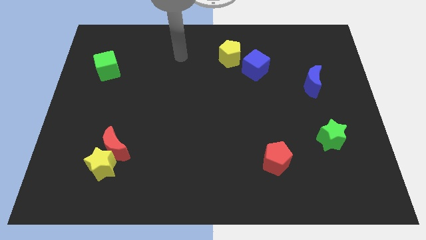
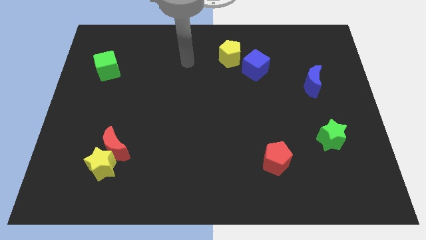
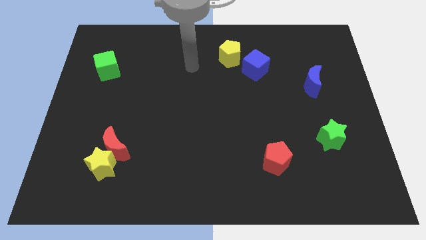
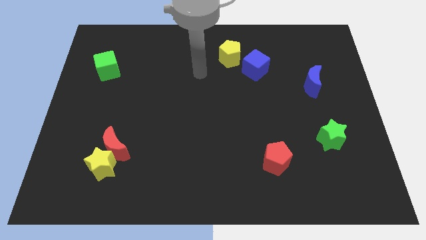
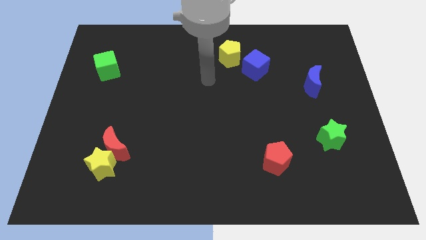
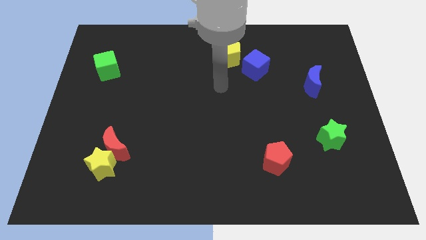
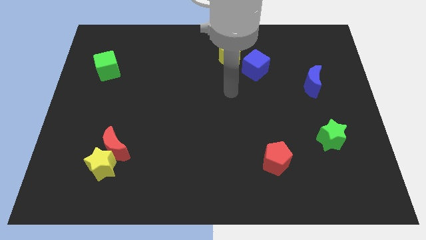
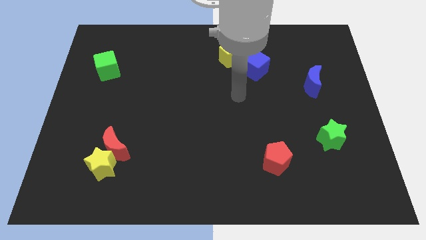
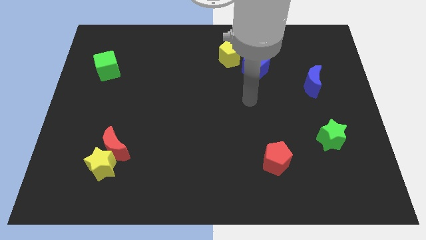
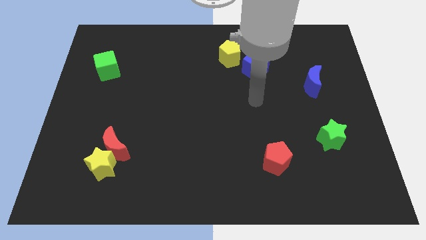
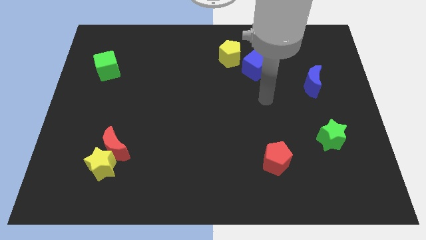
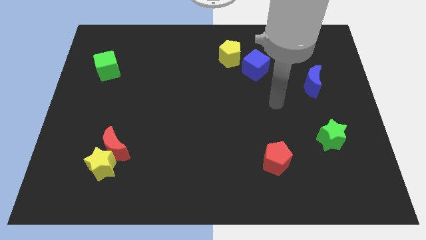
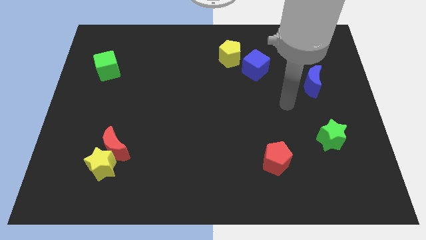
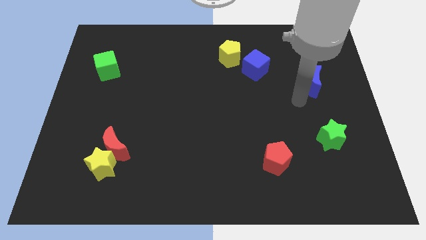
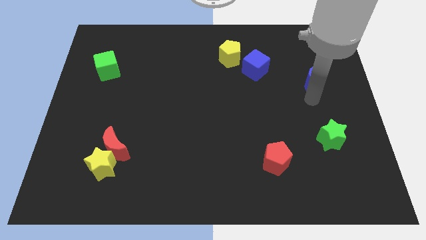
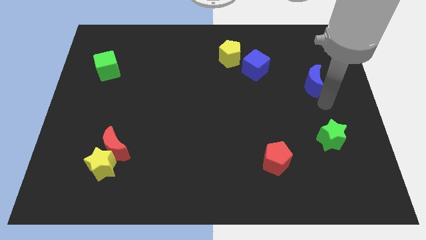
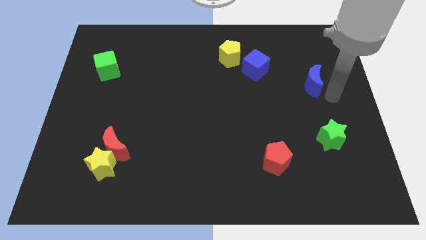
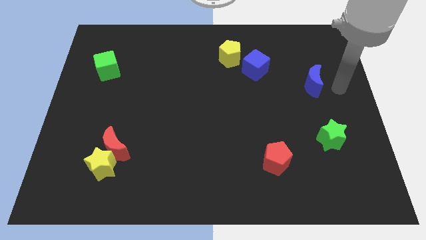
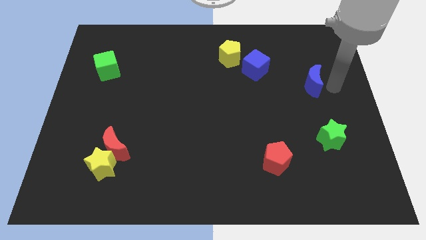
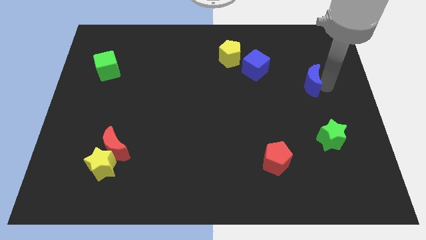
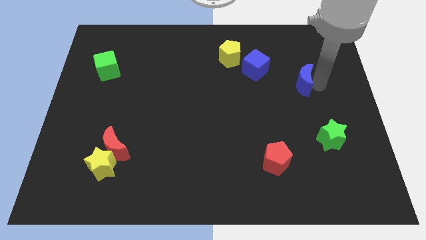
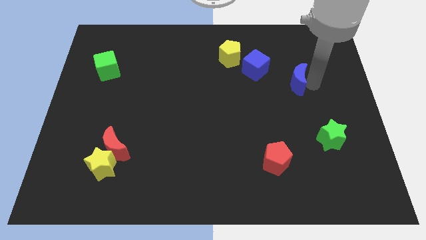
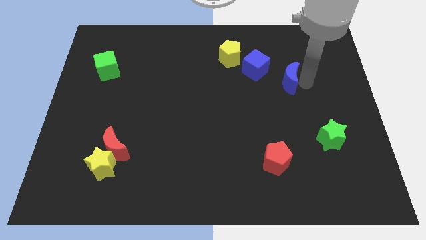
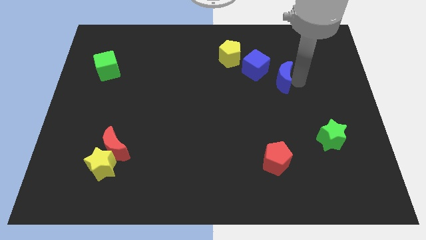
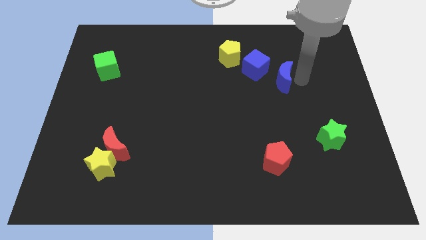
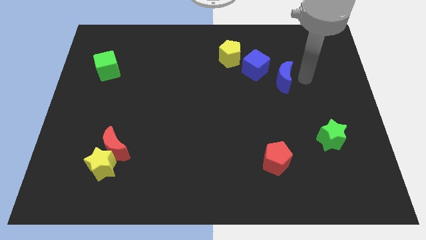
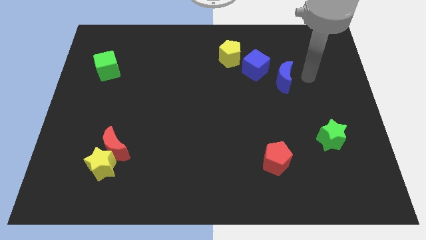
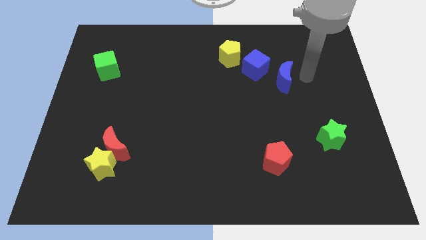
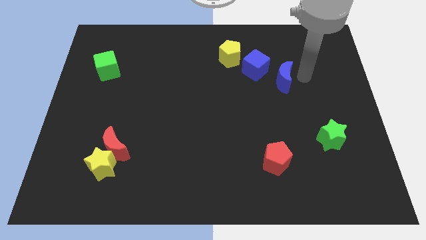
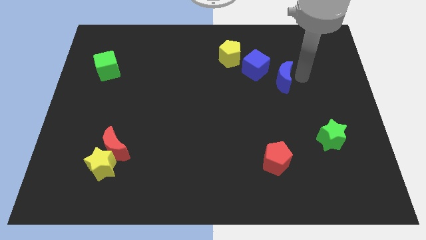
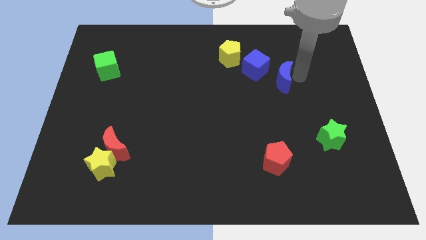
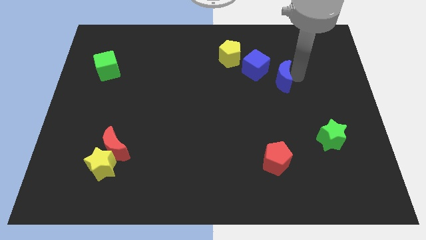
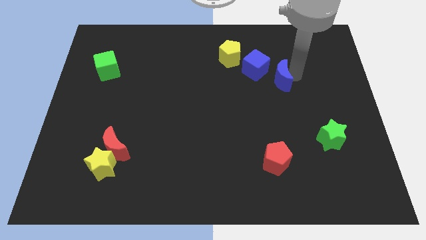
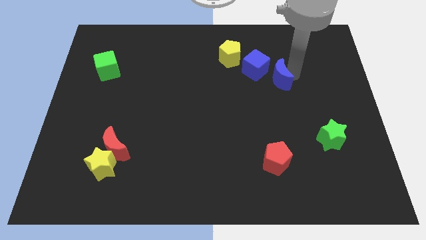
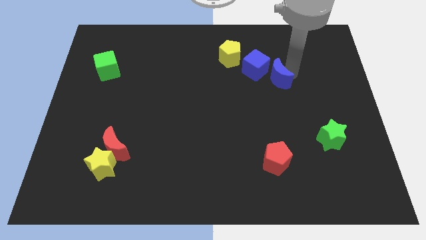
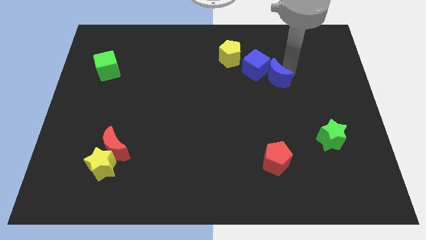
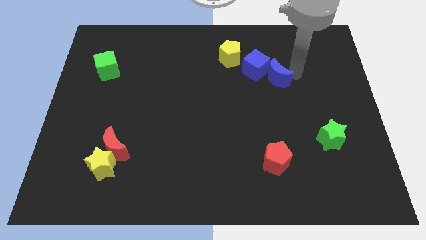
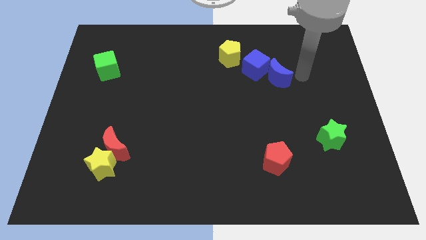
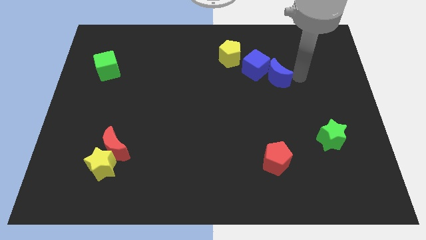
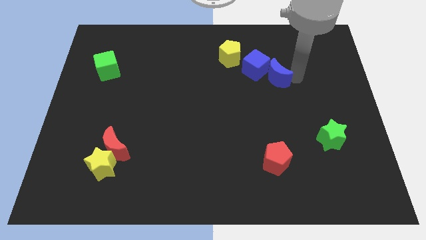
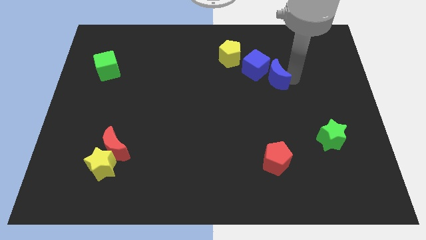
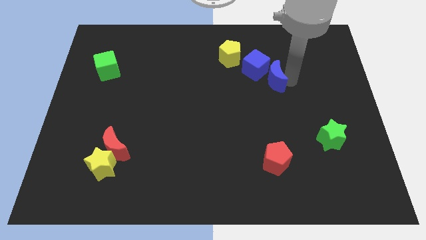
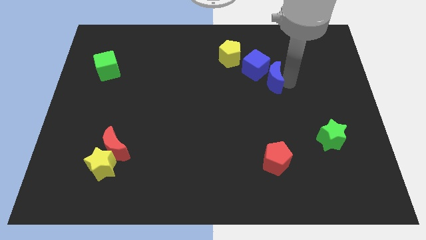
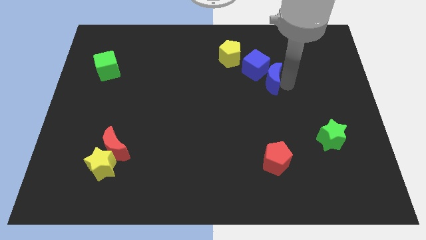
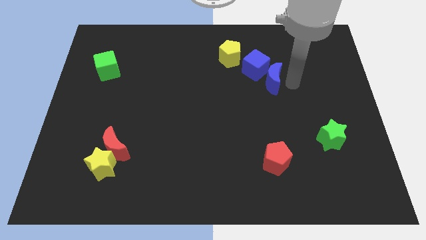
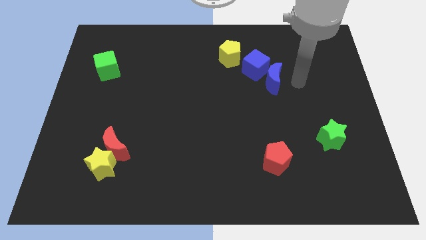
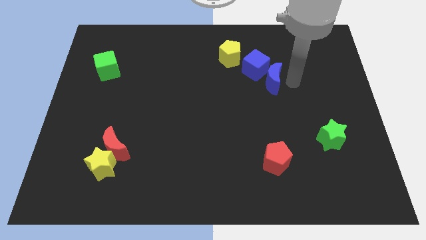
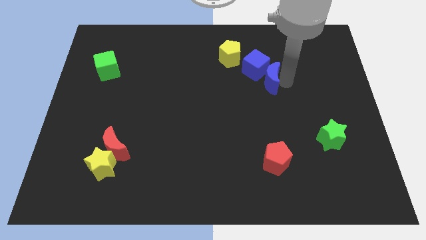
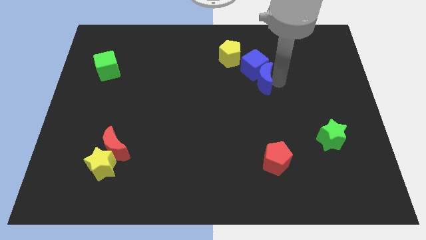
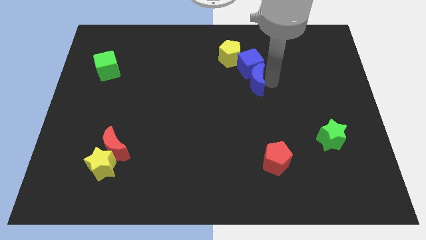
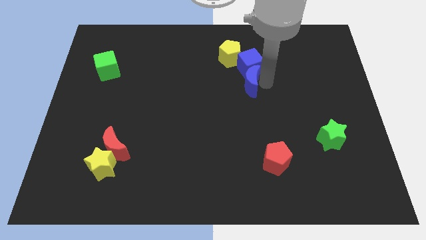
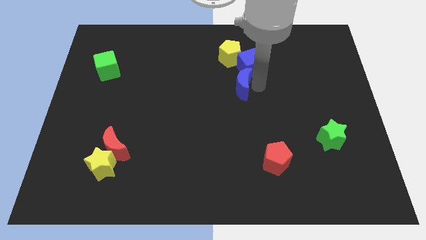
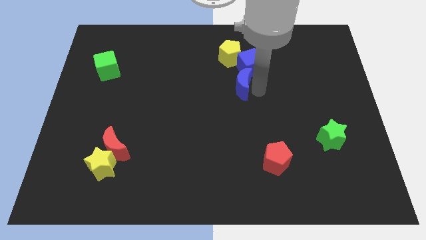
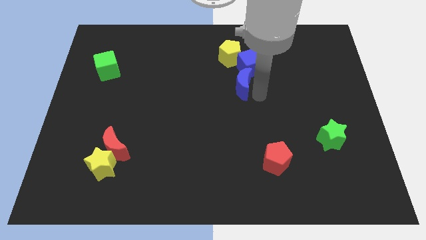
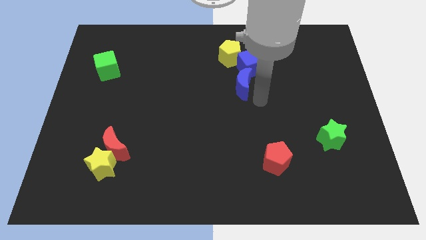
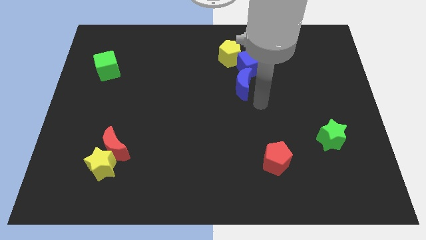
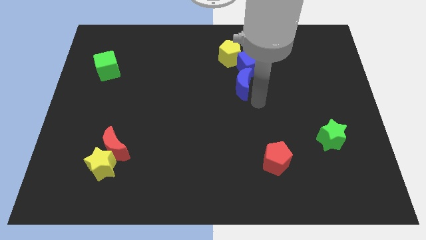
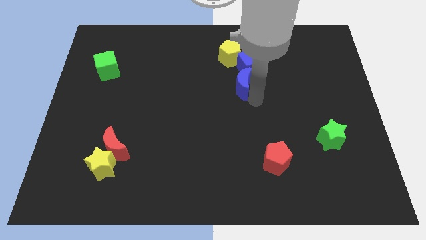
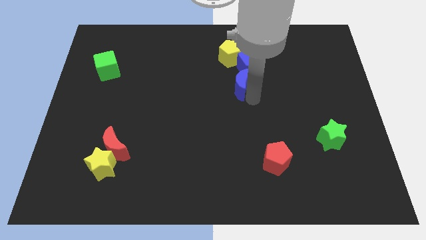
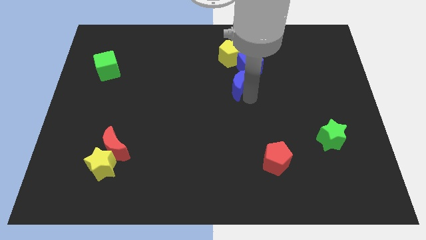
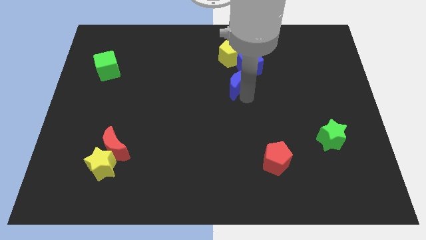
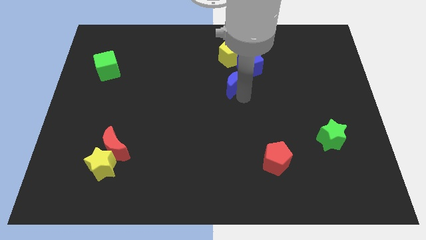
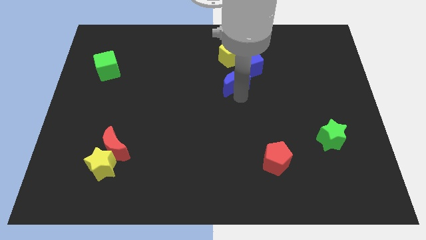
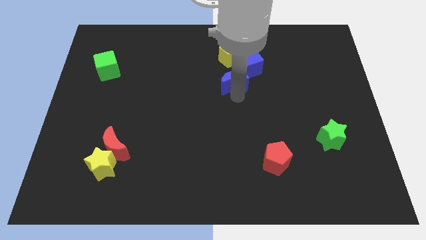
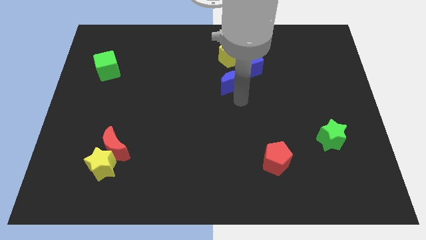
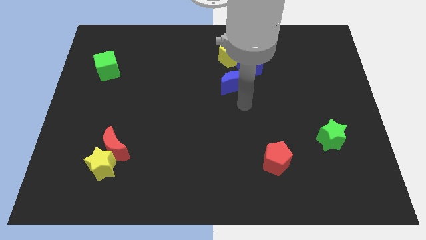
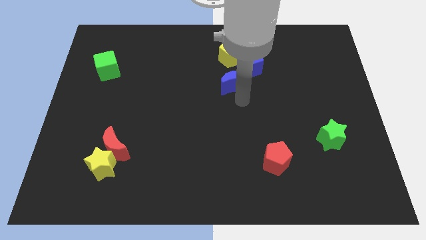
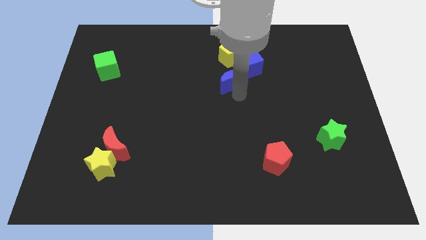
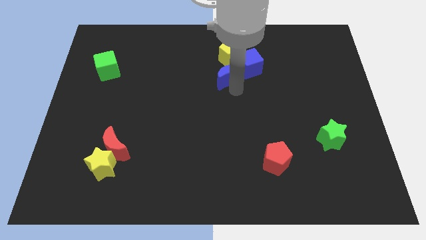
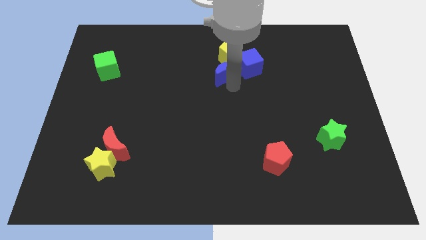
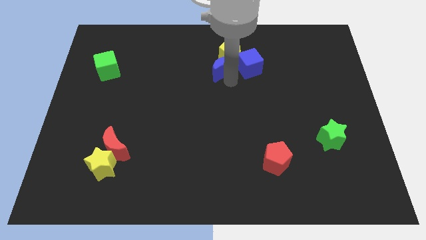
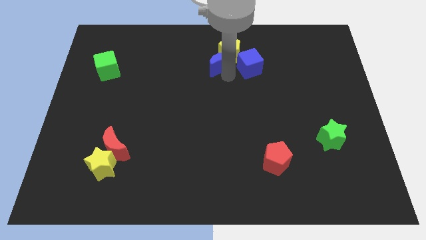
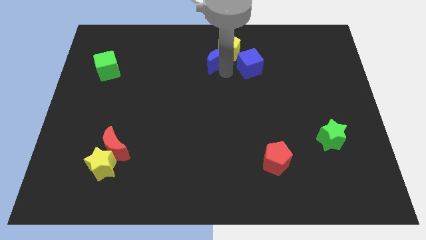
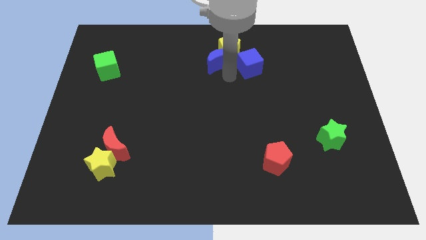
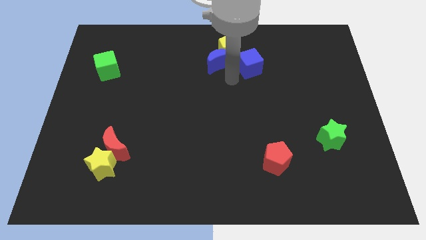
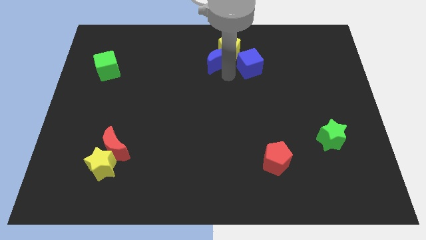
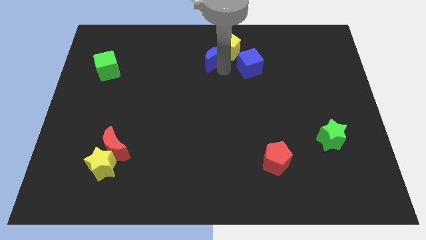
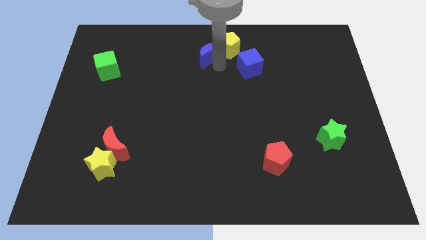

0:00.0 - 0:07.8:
move the blue moon to the towards your base
